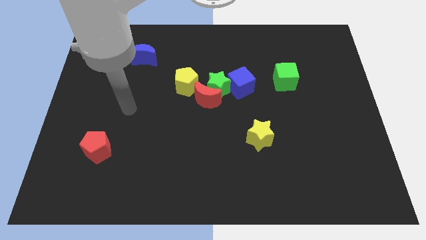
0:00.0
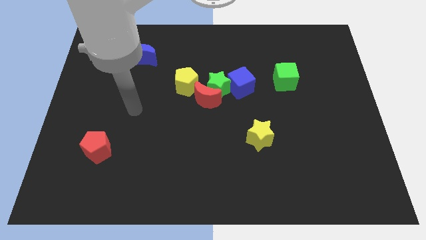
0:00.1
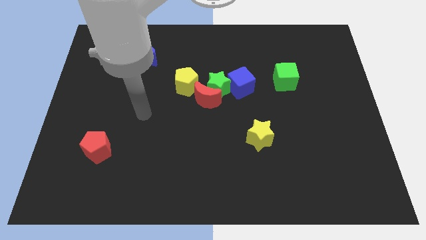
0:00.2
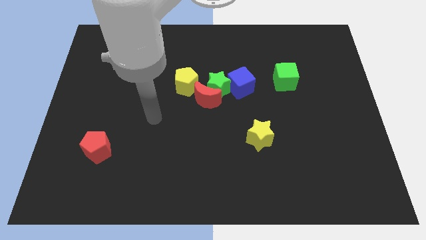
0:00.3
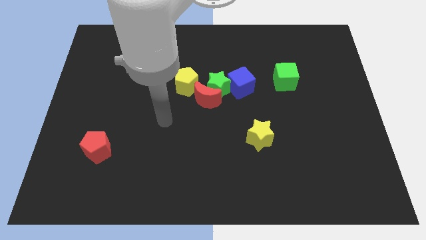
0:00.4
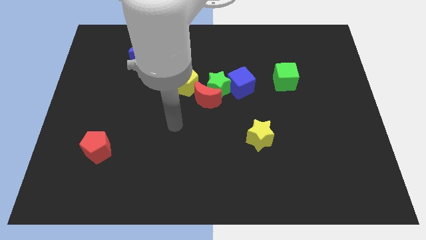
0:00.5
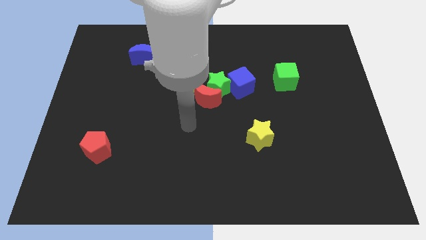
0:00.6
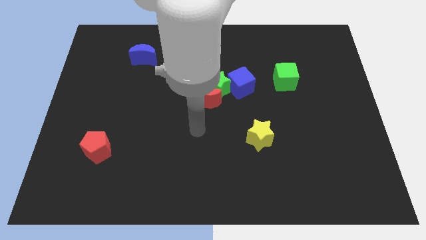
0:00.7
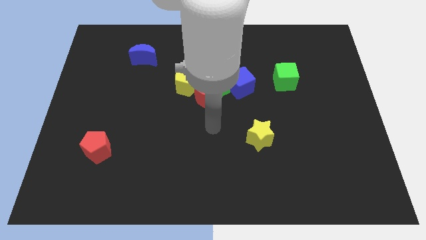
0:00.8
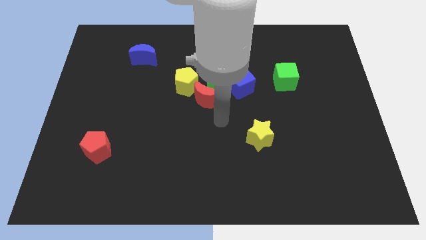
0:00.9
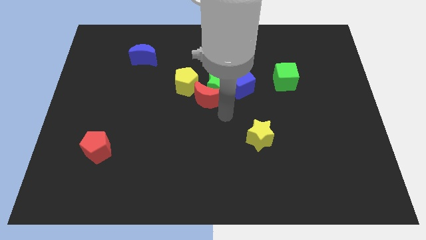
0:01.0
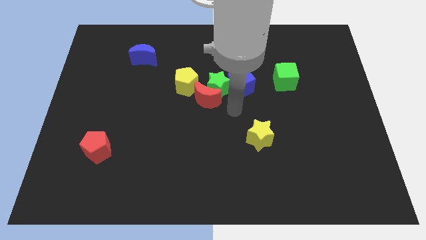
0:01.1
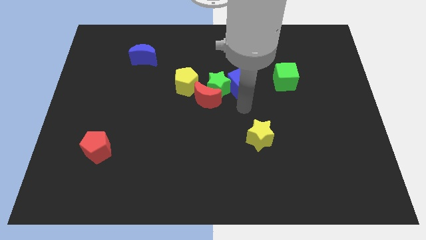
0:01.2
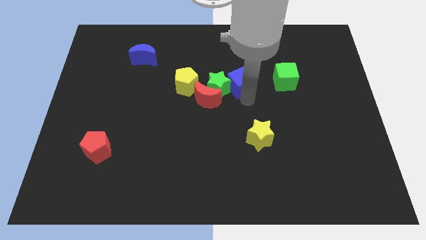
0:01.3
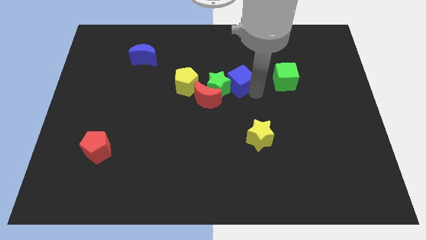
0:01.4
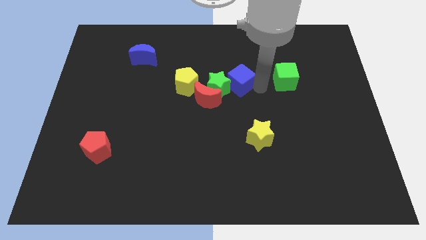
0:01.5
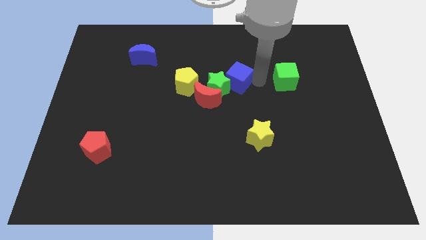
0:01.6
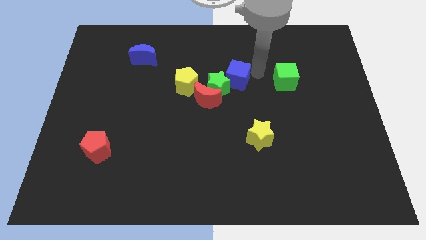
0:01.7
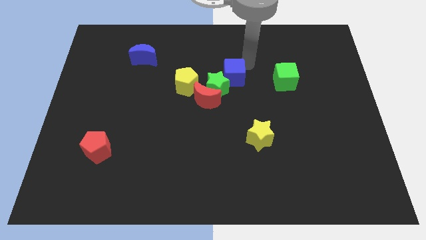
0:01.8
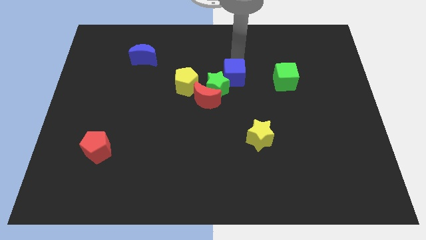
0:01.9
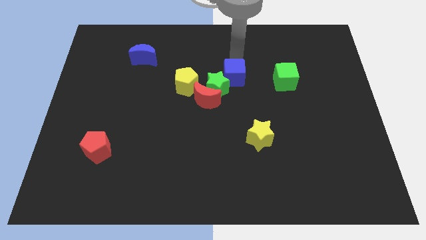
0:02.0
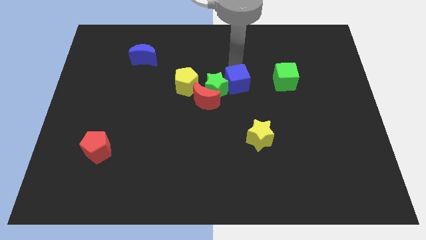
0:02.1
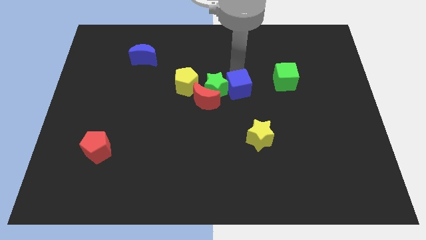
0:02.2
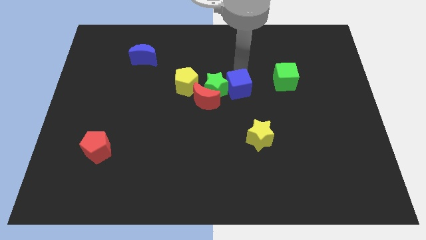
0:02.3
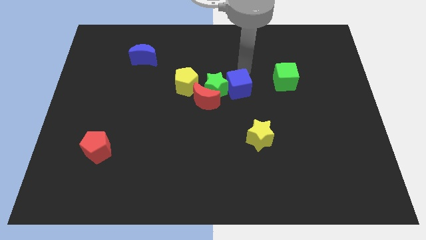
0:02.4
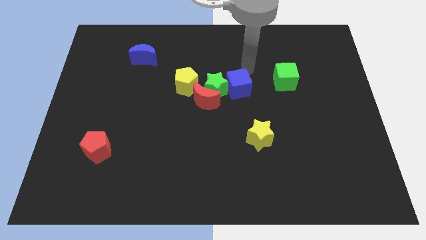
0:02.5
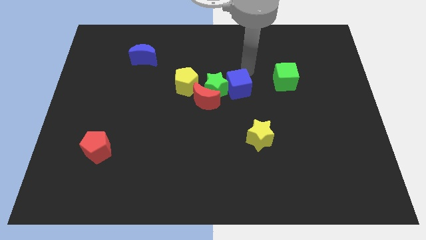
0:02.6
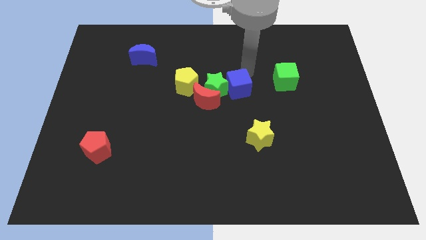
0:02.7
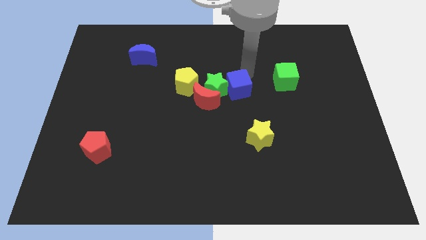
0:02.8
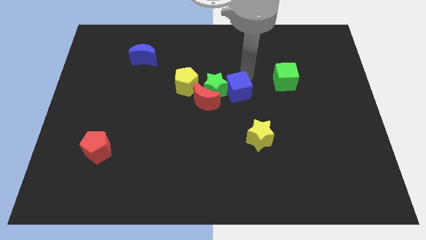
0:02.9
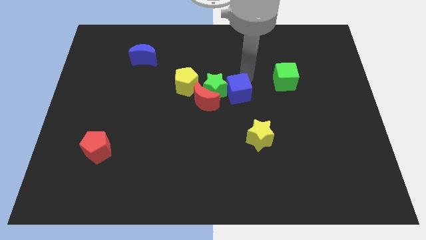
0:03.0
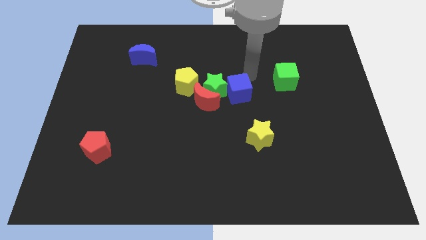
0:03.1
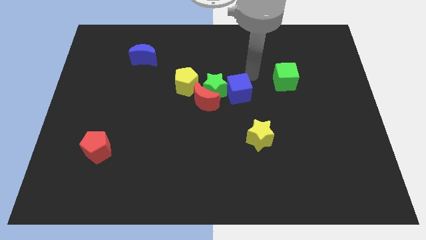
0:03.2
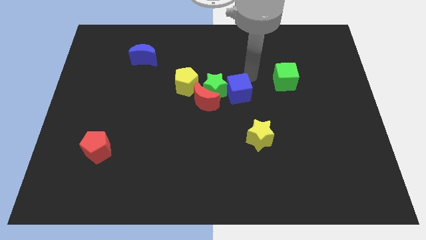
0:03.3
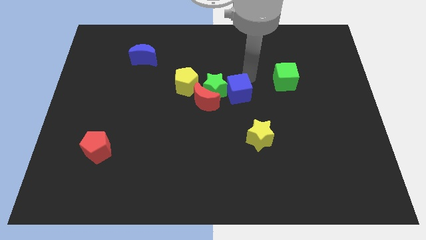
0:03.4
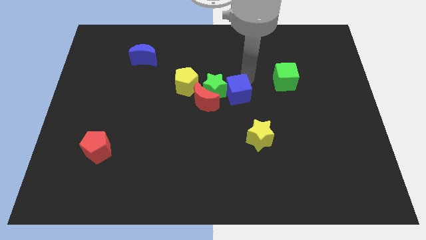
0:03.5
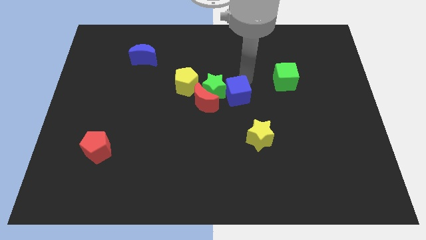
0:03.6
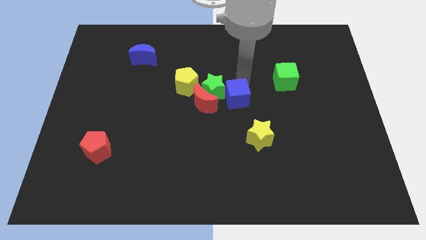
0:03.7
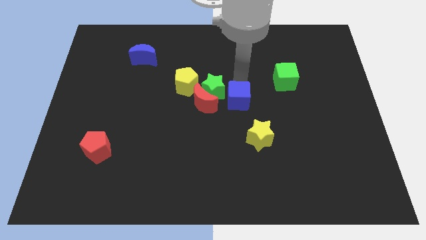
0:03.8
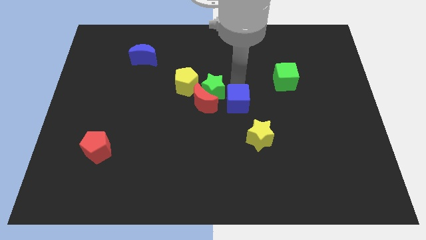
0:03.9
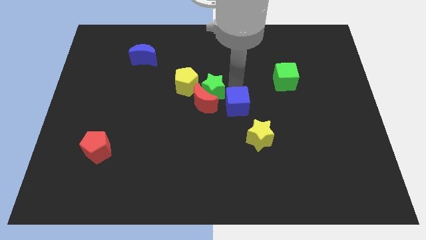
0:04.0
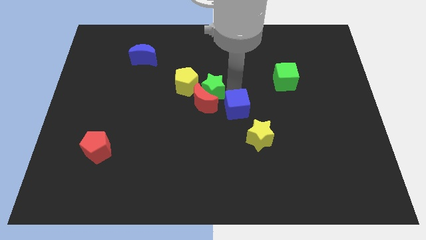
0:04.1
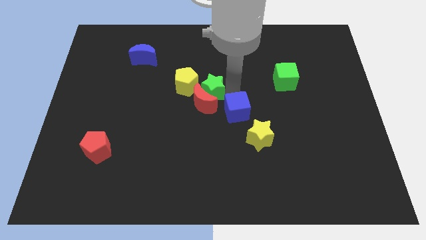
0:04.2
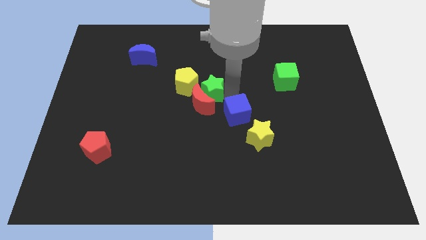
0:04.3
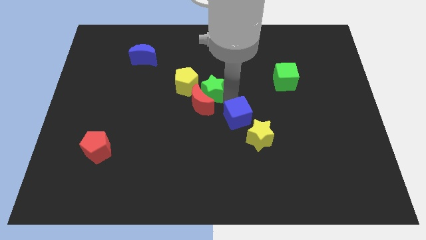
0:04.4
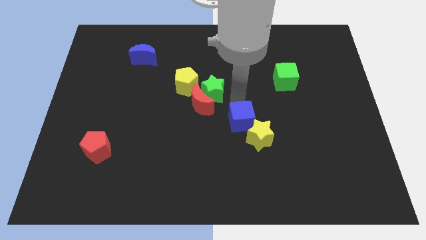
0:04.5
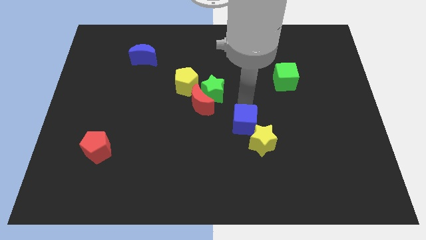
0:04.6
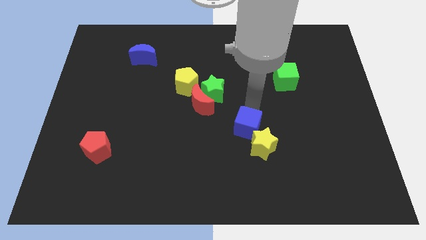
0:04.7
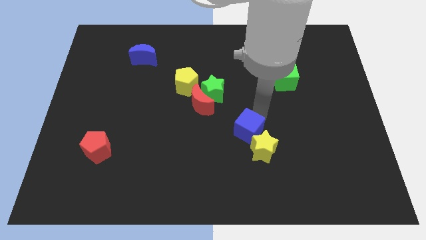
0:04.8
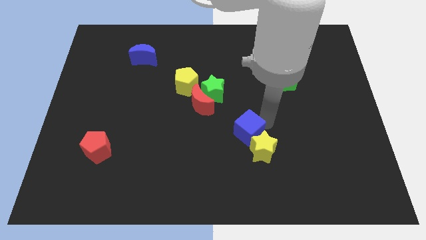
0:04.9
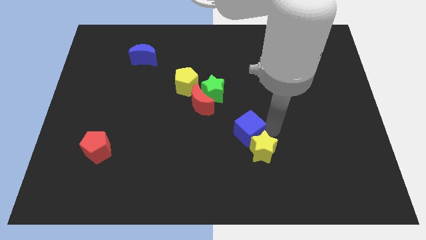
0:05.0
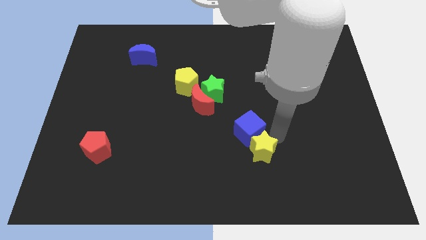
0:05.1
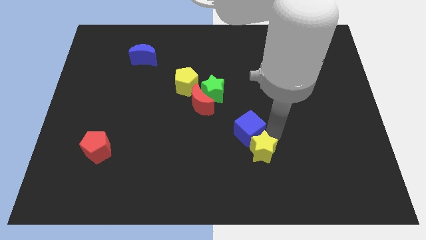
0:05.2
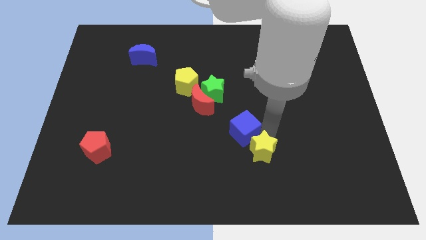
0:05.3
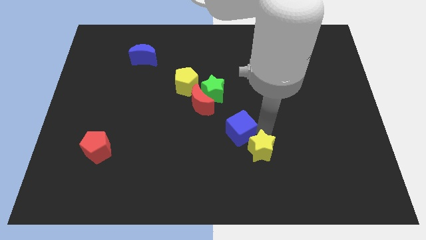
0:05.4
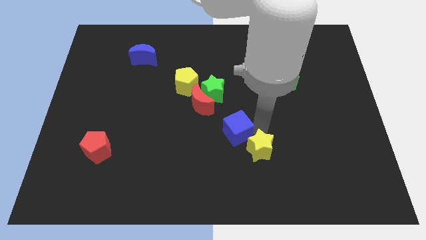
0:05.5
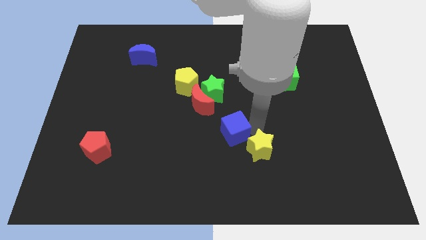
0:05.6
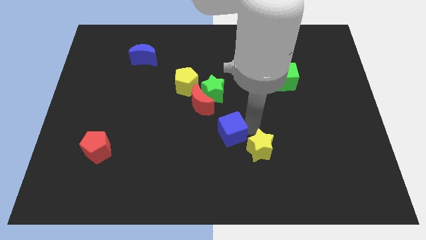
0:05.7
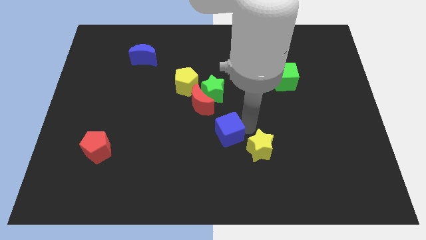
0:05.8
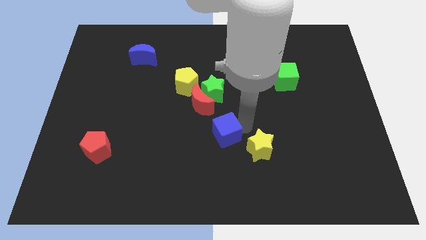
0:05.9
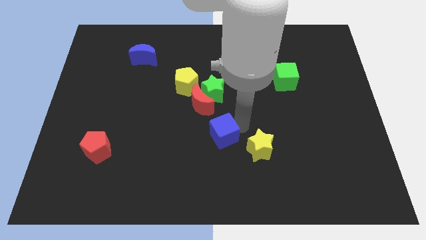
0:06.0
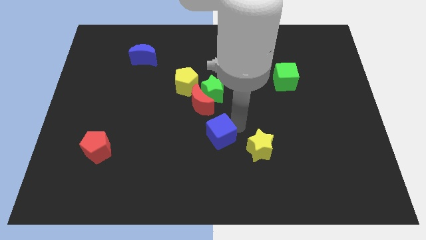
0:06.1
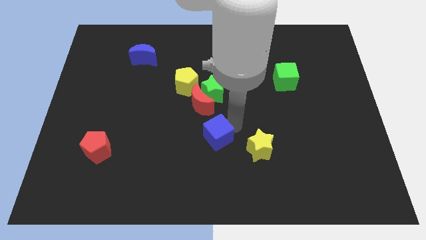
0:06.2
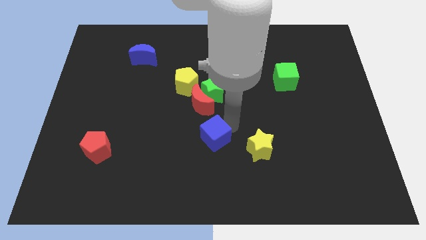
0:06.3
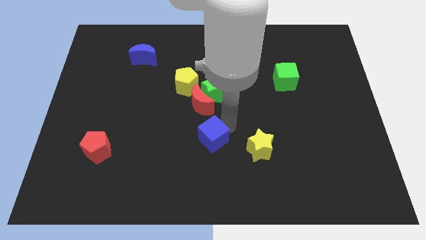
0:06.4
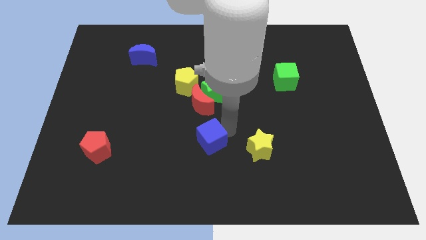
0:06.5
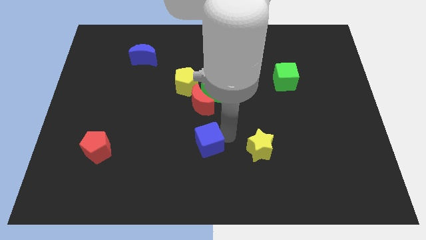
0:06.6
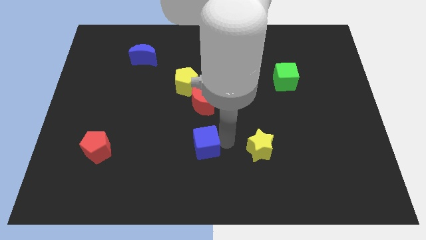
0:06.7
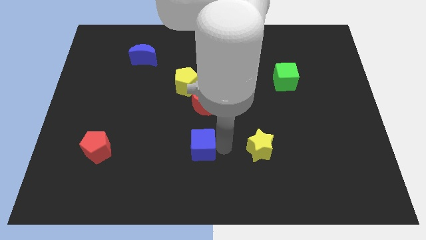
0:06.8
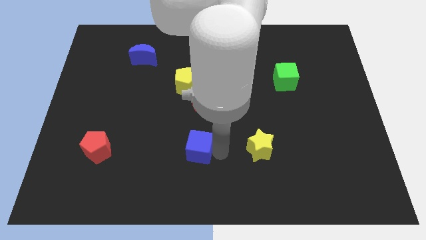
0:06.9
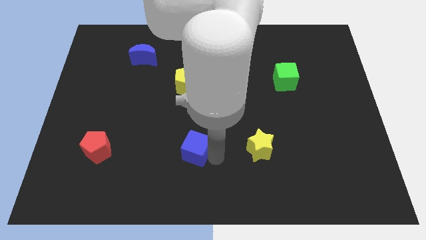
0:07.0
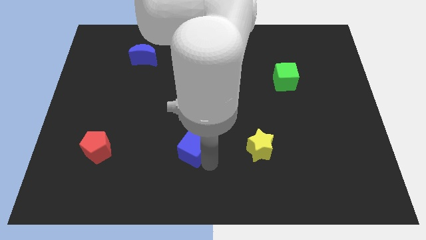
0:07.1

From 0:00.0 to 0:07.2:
push the blue cube diagonally downwards and left

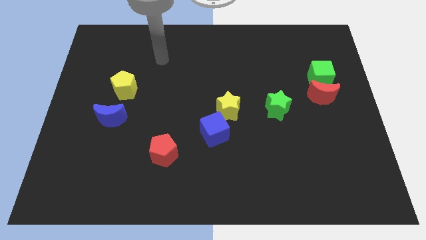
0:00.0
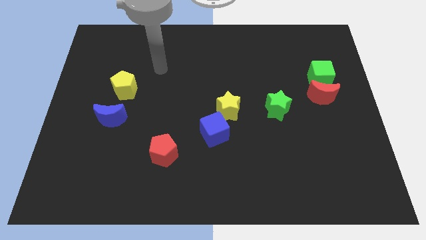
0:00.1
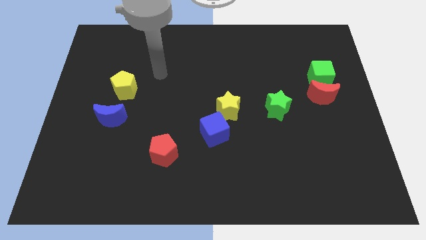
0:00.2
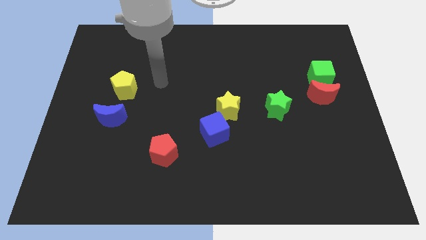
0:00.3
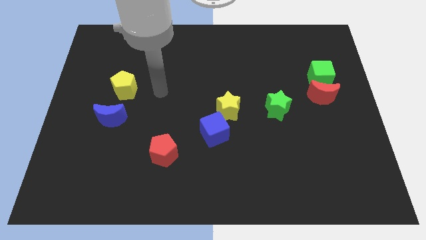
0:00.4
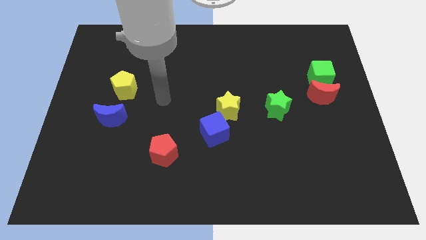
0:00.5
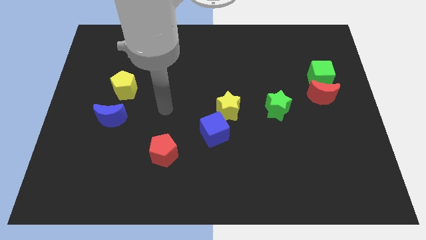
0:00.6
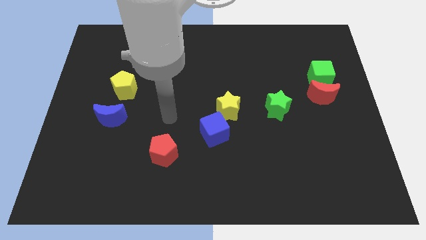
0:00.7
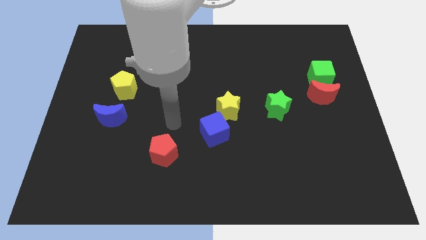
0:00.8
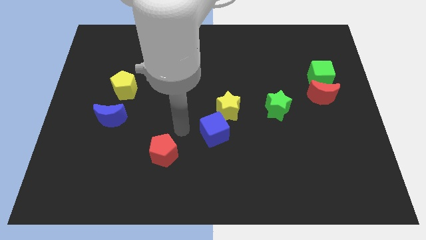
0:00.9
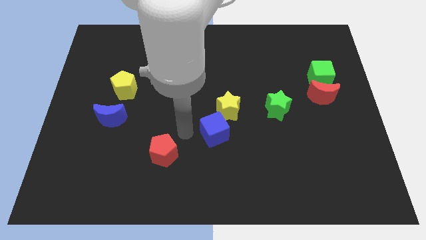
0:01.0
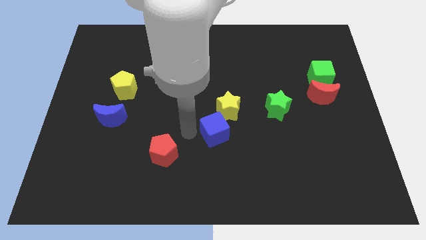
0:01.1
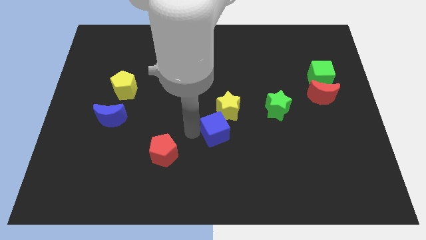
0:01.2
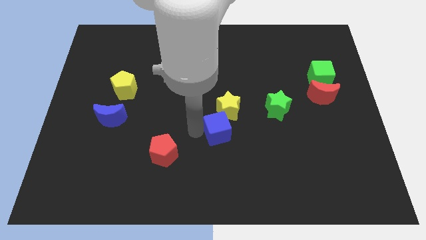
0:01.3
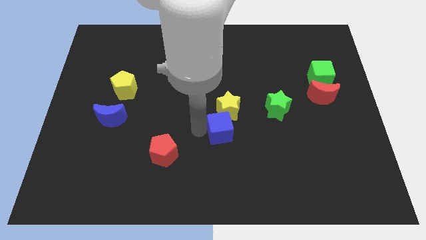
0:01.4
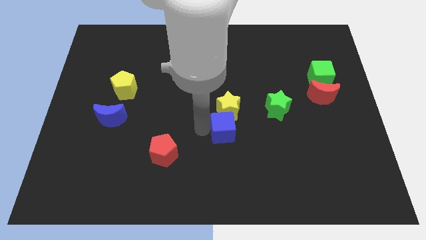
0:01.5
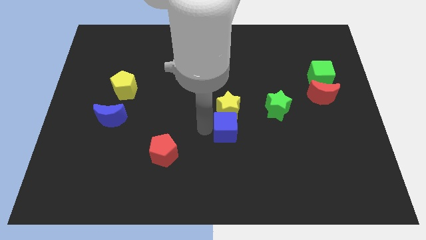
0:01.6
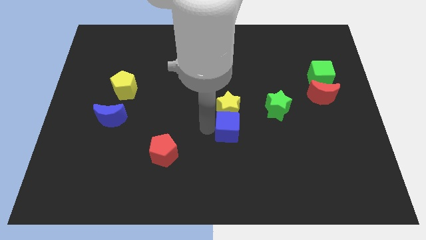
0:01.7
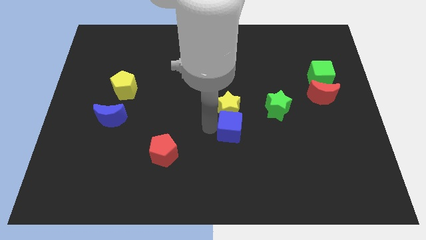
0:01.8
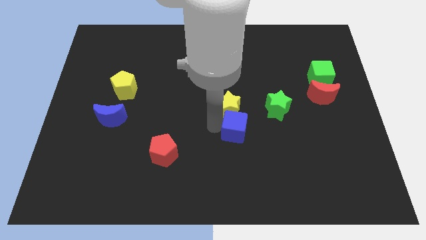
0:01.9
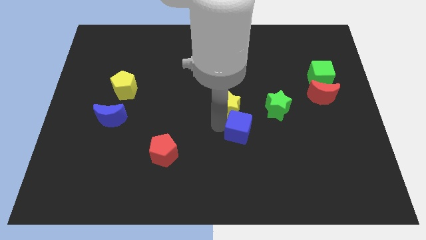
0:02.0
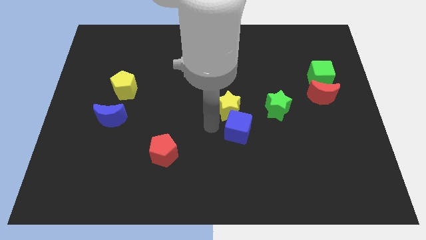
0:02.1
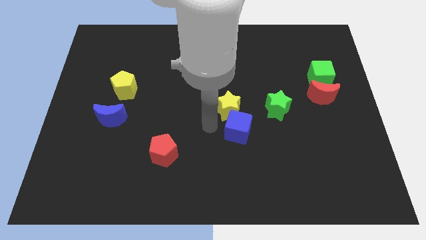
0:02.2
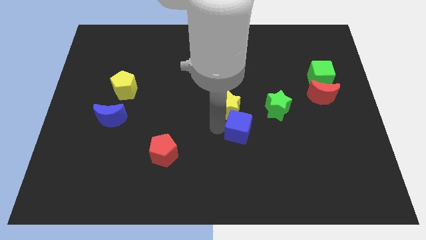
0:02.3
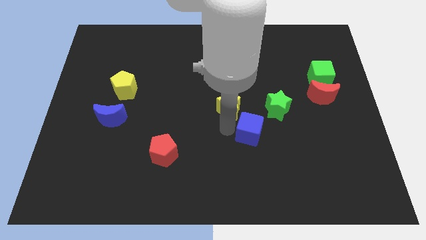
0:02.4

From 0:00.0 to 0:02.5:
slide the blue cube right slightly
